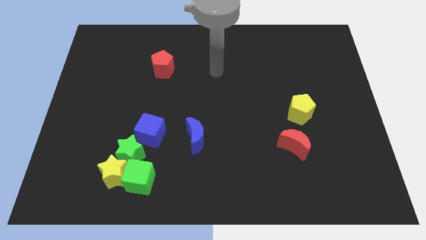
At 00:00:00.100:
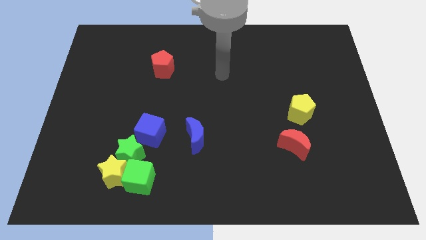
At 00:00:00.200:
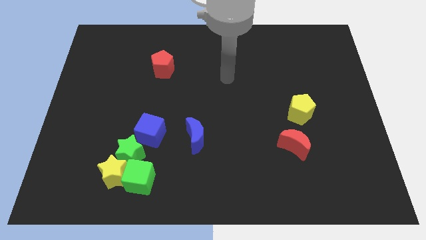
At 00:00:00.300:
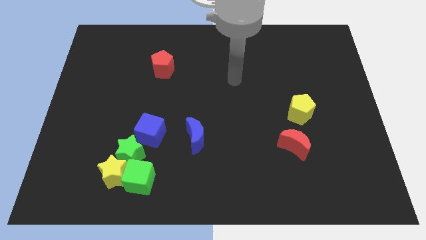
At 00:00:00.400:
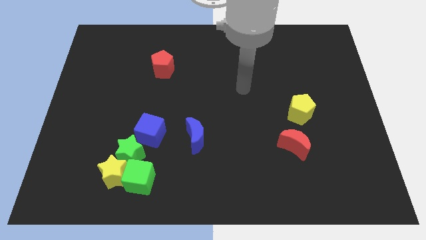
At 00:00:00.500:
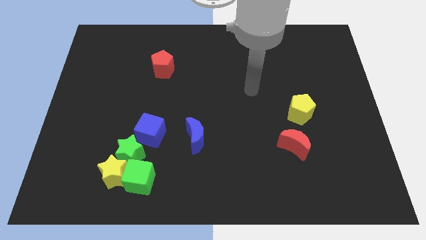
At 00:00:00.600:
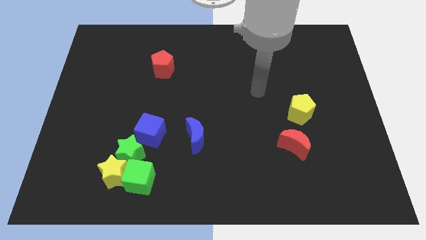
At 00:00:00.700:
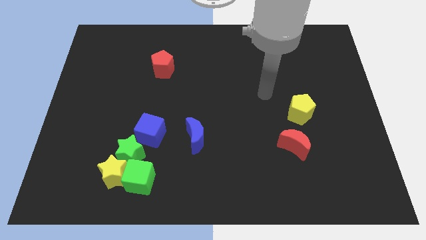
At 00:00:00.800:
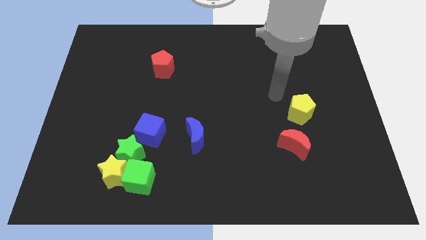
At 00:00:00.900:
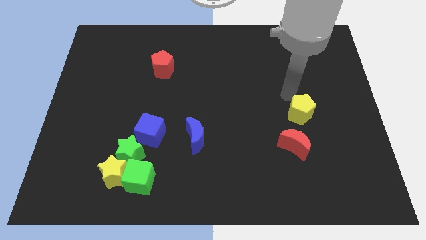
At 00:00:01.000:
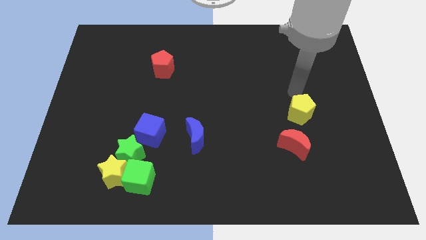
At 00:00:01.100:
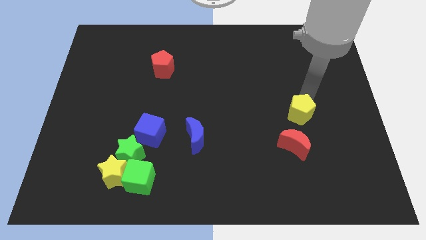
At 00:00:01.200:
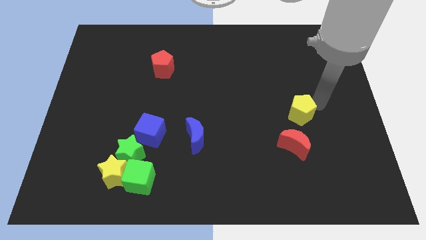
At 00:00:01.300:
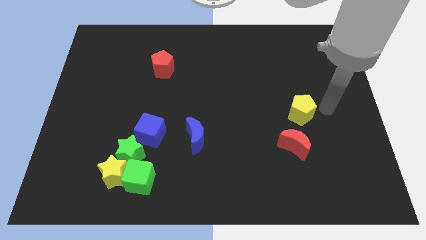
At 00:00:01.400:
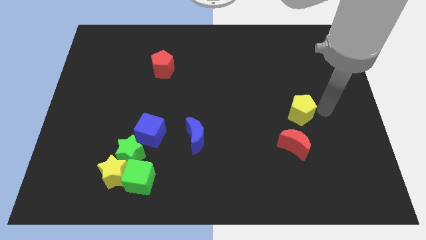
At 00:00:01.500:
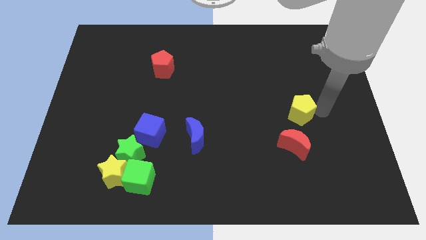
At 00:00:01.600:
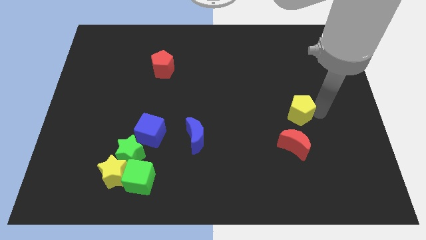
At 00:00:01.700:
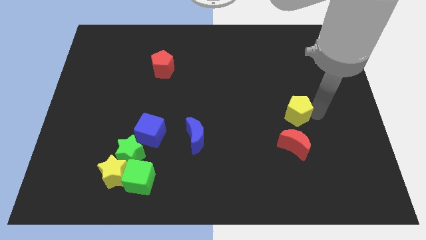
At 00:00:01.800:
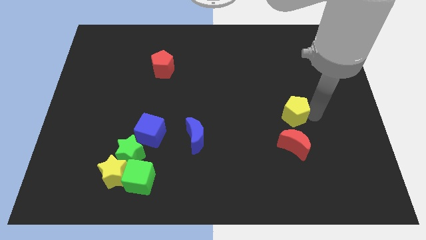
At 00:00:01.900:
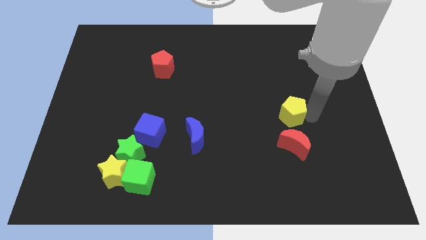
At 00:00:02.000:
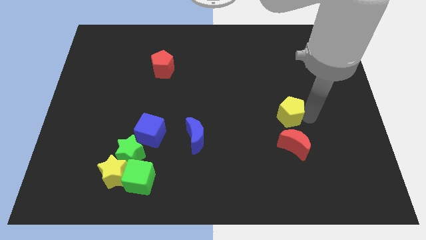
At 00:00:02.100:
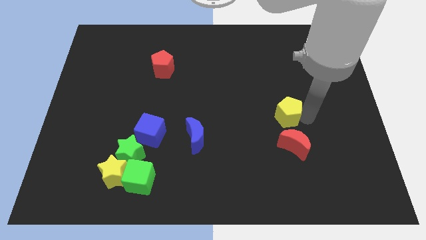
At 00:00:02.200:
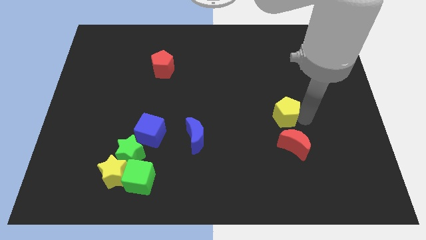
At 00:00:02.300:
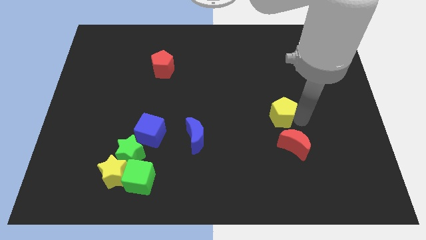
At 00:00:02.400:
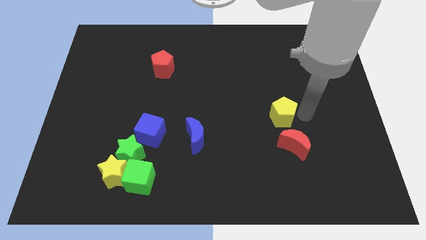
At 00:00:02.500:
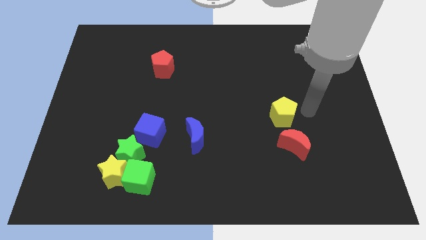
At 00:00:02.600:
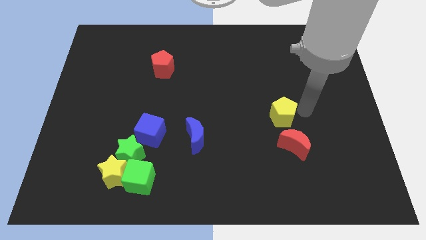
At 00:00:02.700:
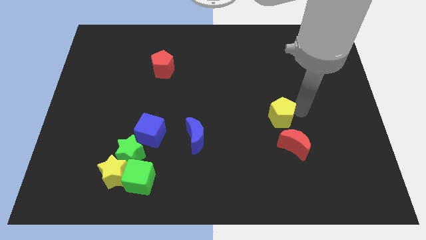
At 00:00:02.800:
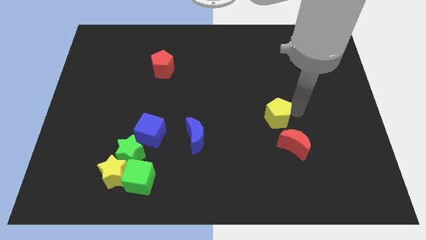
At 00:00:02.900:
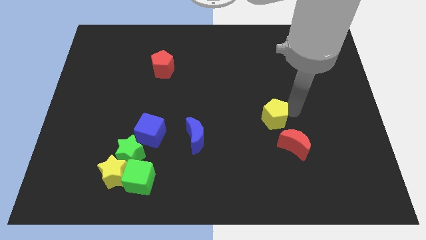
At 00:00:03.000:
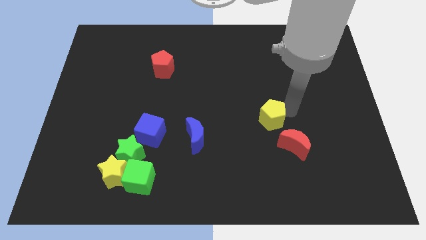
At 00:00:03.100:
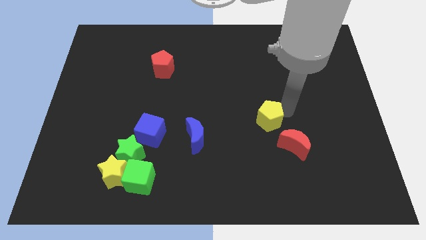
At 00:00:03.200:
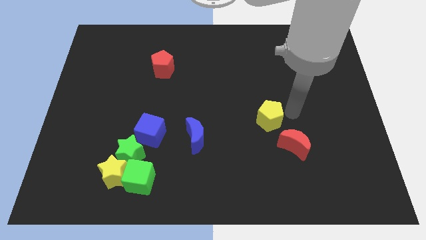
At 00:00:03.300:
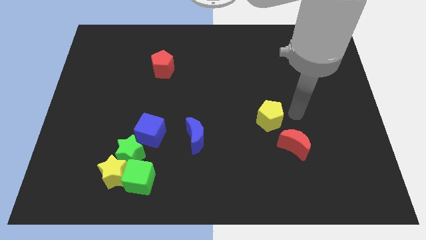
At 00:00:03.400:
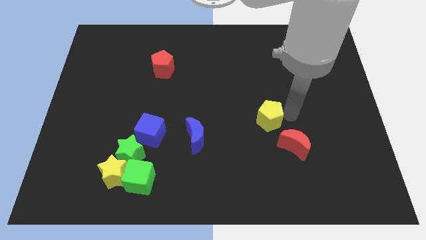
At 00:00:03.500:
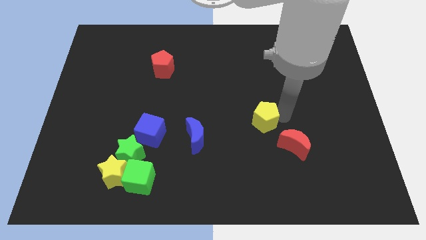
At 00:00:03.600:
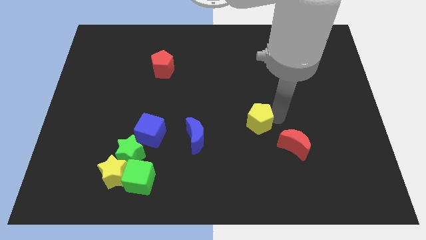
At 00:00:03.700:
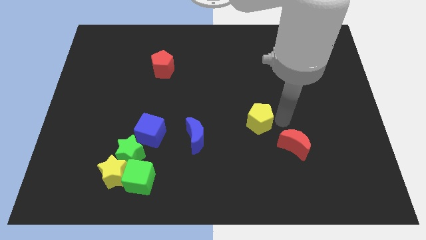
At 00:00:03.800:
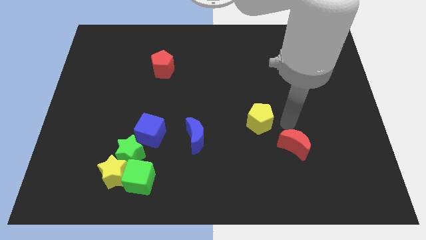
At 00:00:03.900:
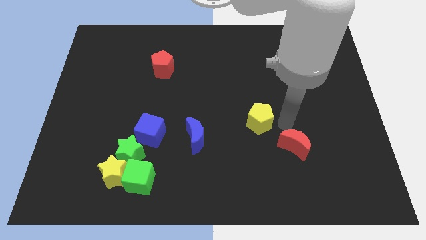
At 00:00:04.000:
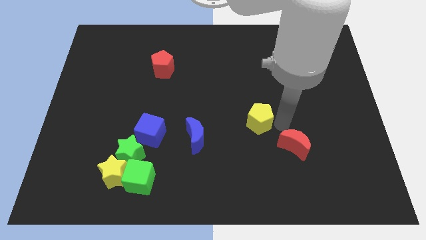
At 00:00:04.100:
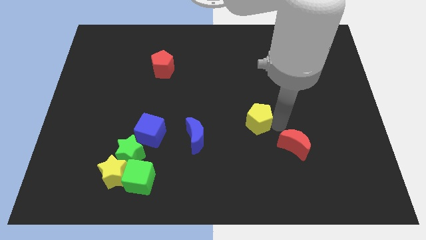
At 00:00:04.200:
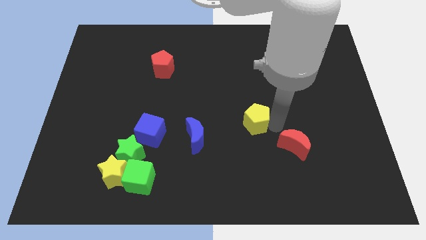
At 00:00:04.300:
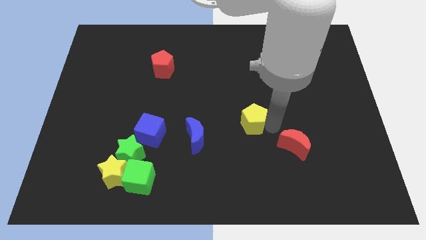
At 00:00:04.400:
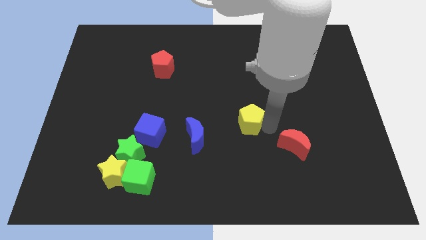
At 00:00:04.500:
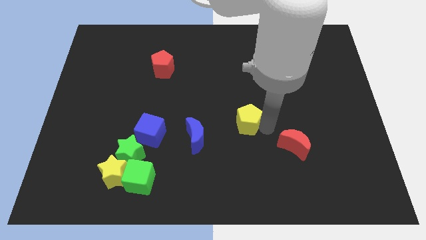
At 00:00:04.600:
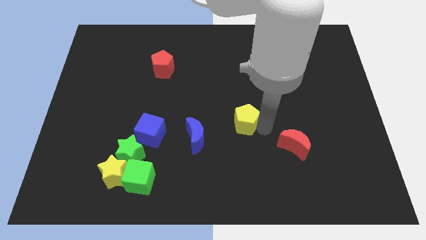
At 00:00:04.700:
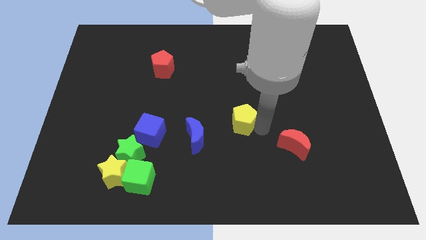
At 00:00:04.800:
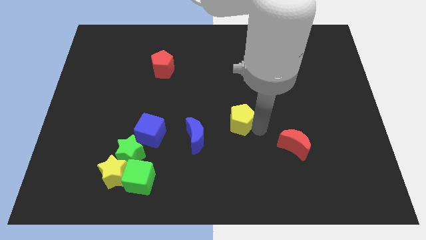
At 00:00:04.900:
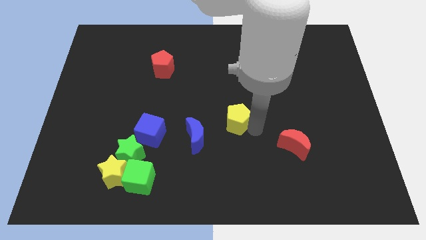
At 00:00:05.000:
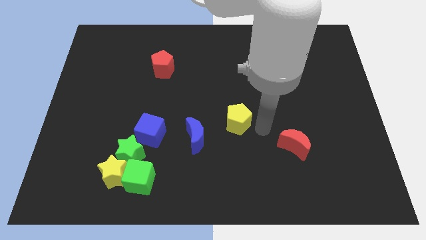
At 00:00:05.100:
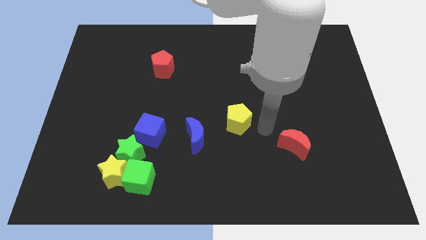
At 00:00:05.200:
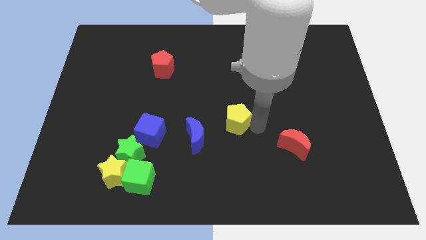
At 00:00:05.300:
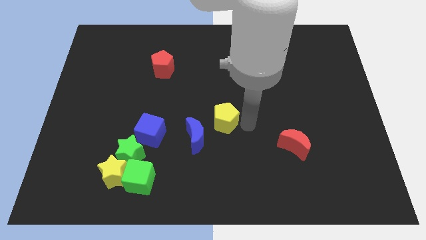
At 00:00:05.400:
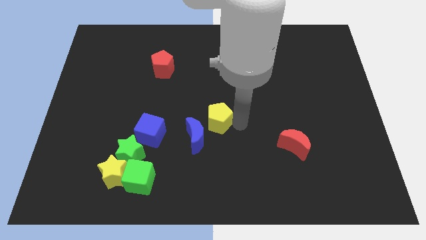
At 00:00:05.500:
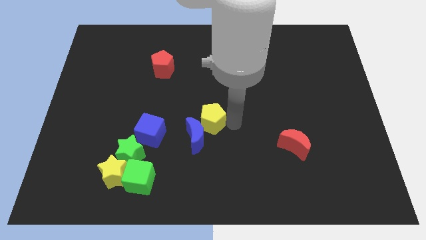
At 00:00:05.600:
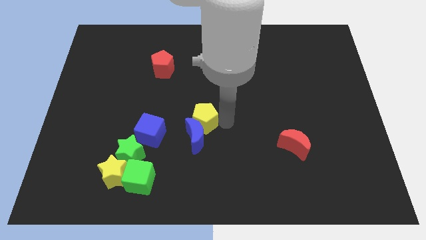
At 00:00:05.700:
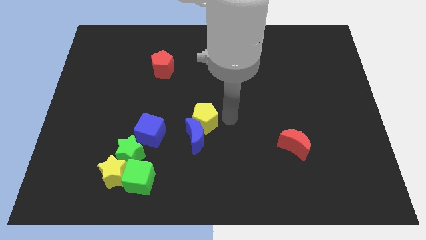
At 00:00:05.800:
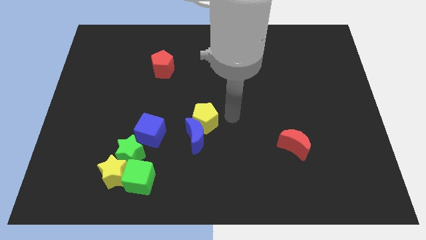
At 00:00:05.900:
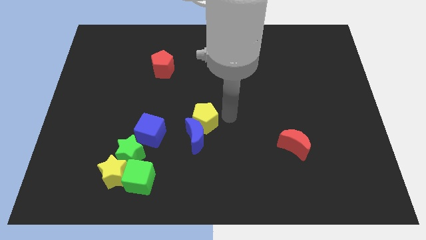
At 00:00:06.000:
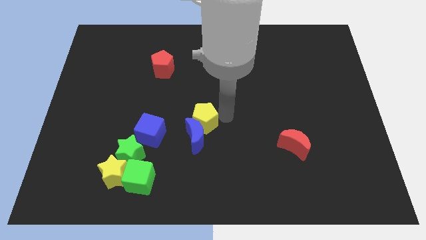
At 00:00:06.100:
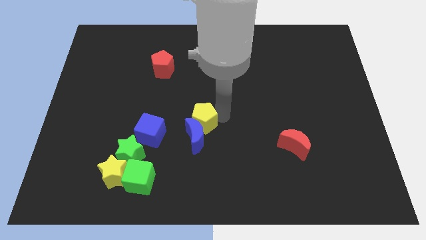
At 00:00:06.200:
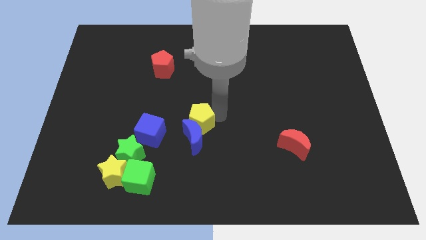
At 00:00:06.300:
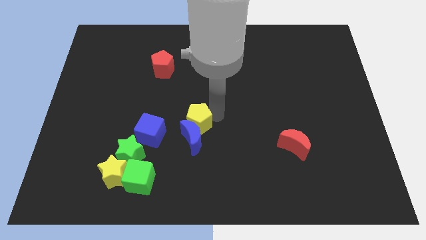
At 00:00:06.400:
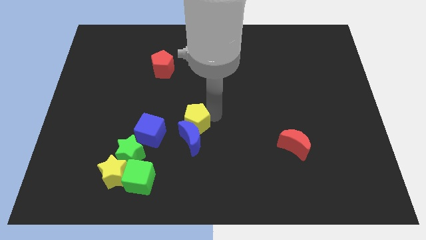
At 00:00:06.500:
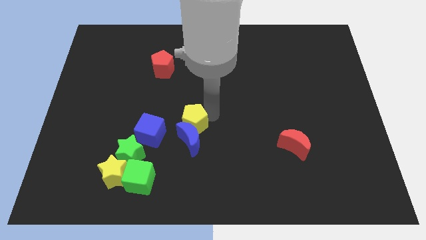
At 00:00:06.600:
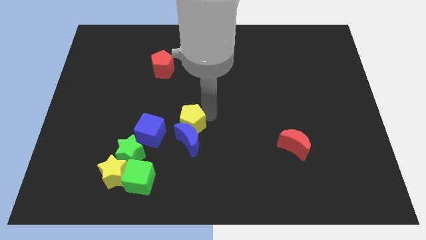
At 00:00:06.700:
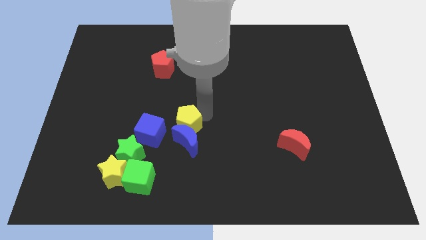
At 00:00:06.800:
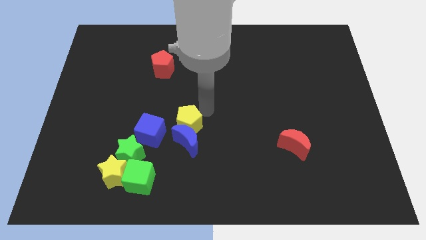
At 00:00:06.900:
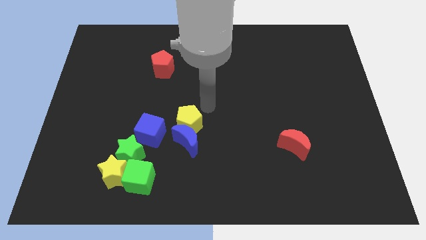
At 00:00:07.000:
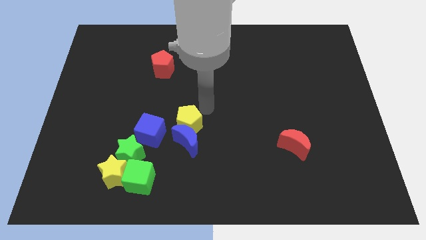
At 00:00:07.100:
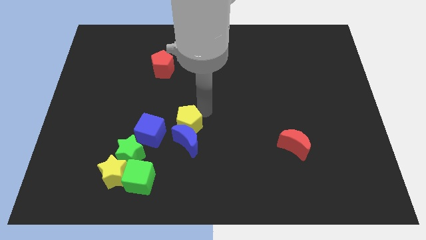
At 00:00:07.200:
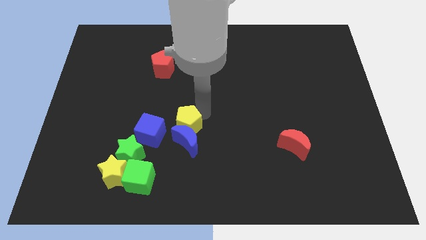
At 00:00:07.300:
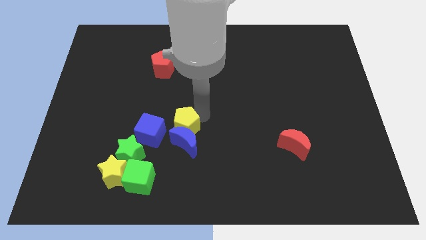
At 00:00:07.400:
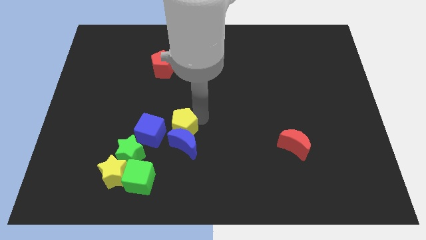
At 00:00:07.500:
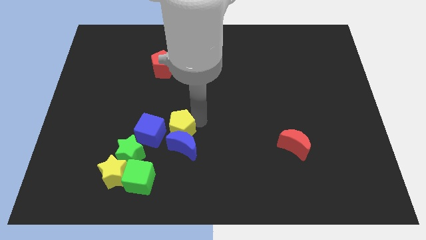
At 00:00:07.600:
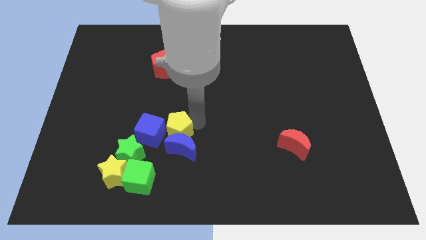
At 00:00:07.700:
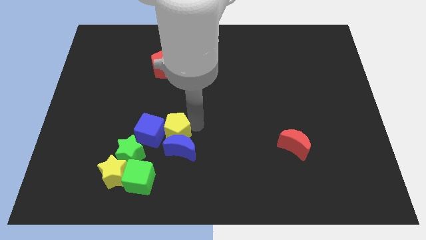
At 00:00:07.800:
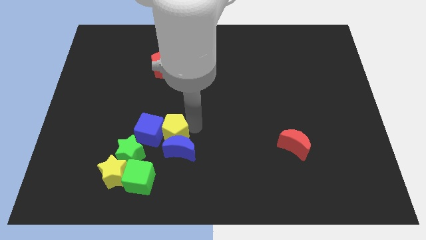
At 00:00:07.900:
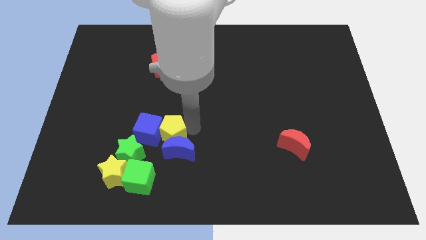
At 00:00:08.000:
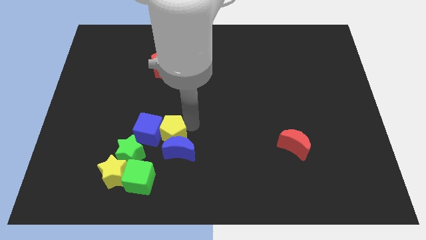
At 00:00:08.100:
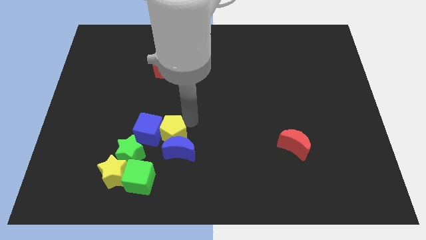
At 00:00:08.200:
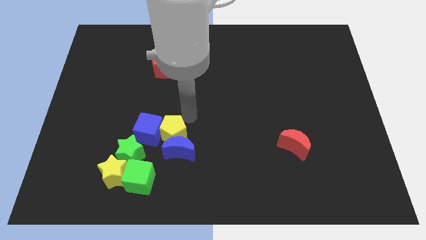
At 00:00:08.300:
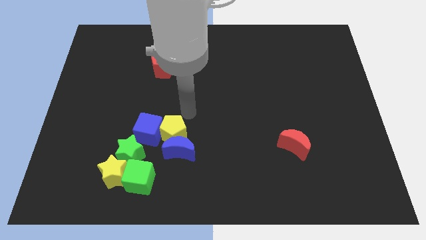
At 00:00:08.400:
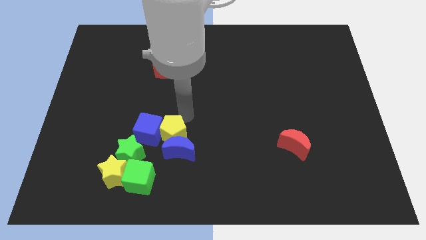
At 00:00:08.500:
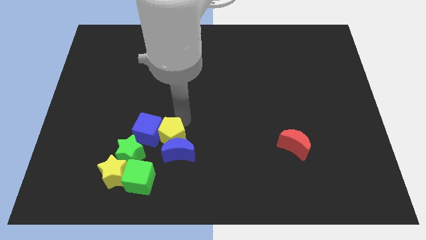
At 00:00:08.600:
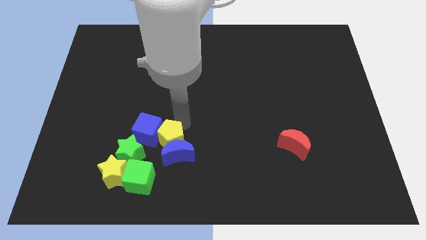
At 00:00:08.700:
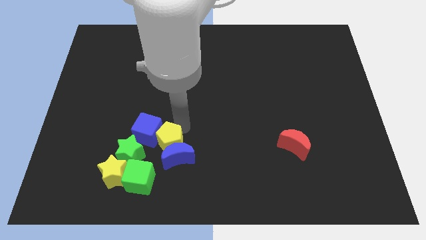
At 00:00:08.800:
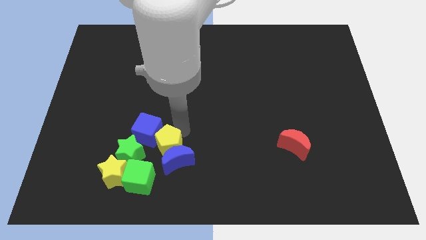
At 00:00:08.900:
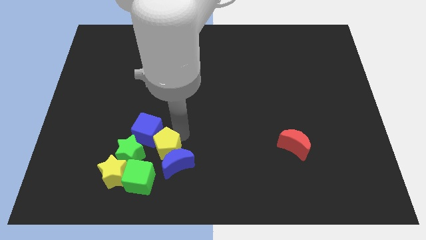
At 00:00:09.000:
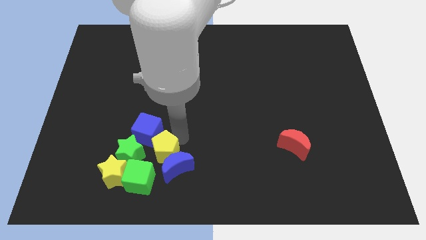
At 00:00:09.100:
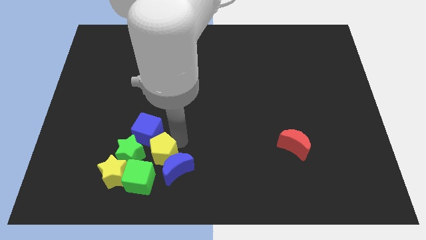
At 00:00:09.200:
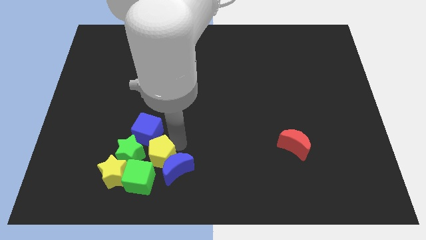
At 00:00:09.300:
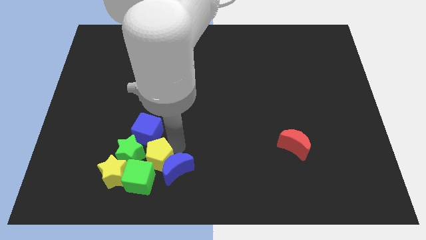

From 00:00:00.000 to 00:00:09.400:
slide the yellow pentagon close to the green star
